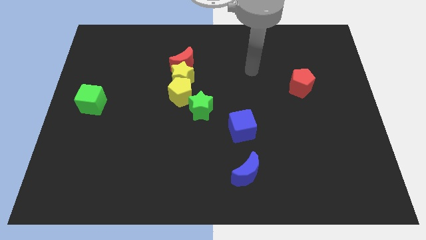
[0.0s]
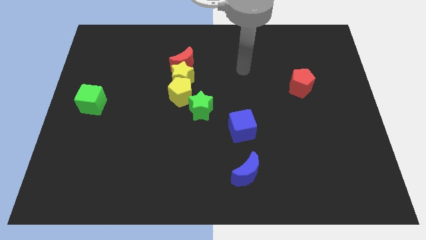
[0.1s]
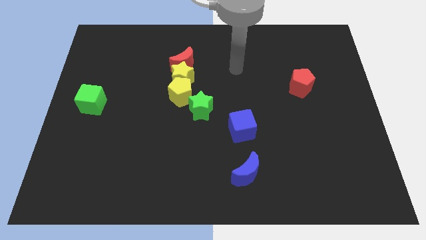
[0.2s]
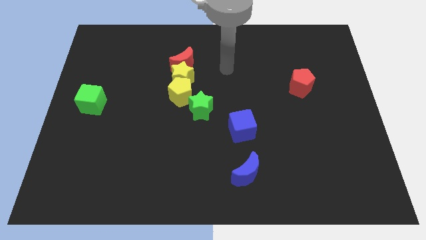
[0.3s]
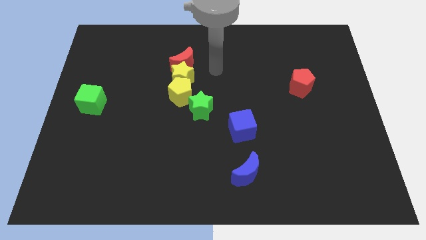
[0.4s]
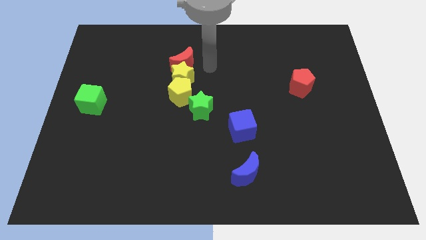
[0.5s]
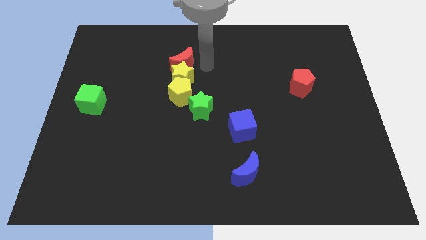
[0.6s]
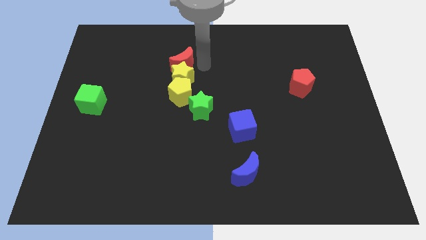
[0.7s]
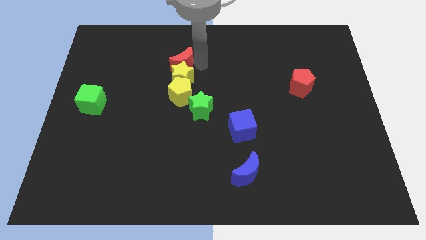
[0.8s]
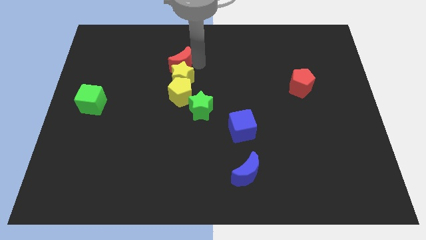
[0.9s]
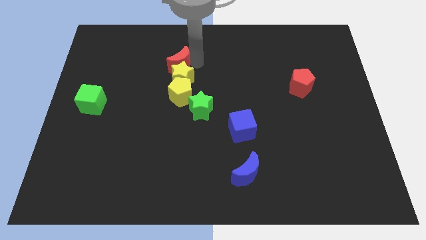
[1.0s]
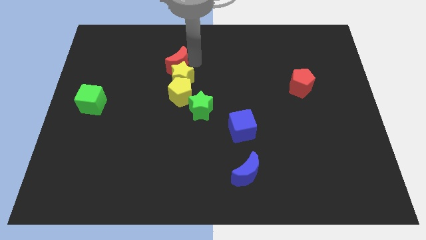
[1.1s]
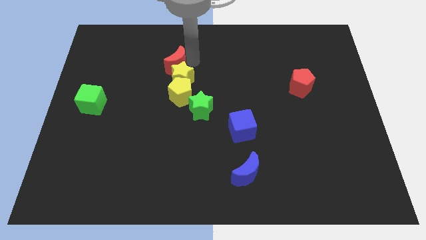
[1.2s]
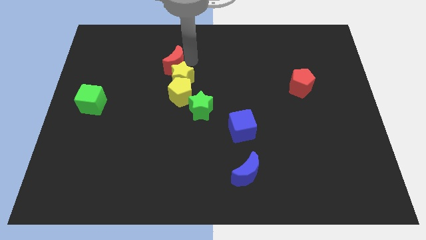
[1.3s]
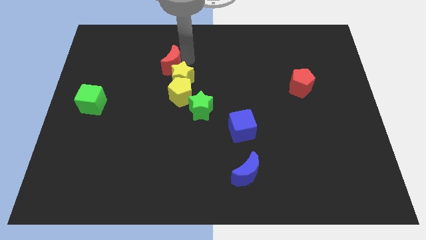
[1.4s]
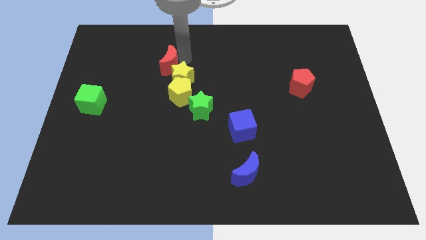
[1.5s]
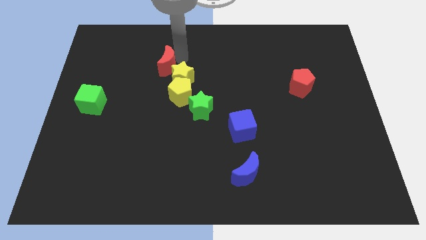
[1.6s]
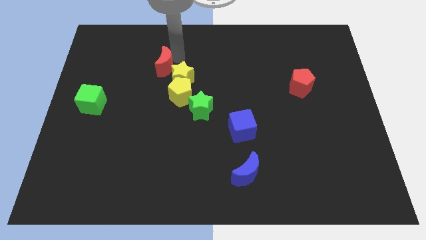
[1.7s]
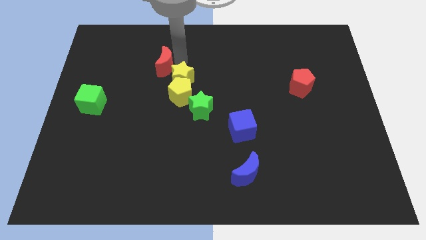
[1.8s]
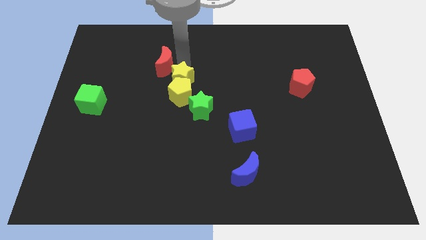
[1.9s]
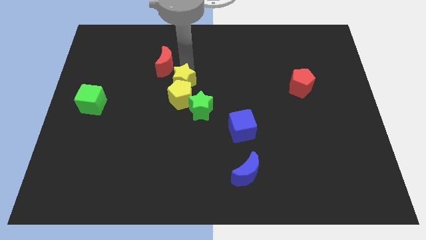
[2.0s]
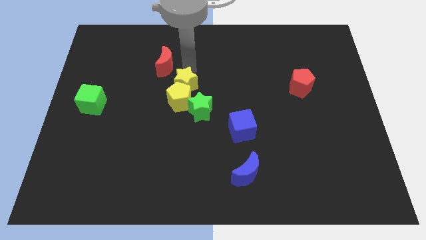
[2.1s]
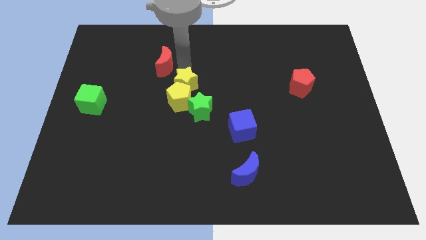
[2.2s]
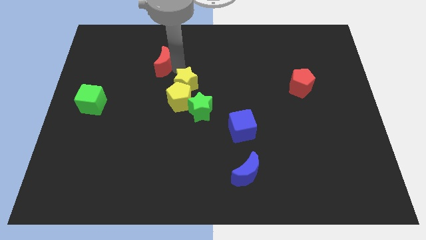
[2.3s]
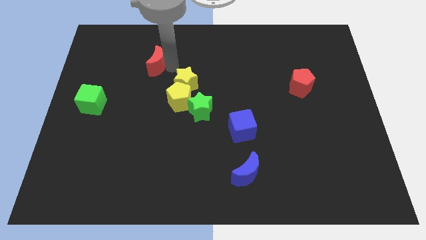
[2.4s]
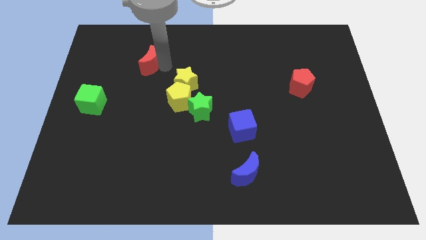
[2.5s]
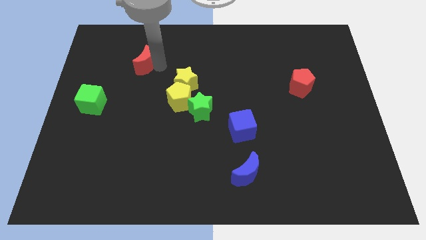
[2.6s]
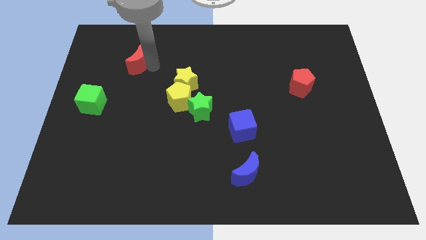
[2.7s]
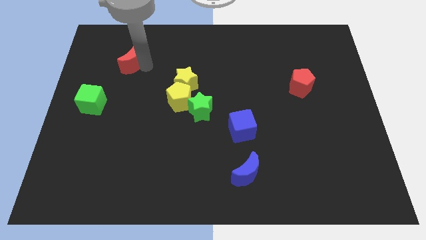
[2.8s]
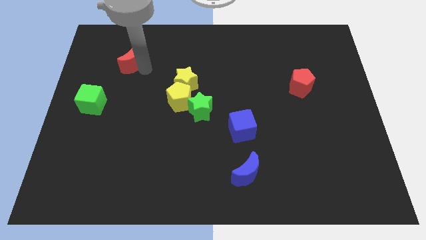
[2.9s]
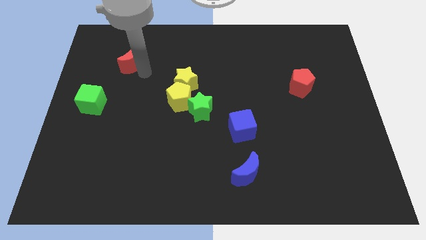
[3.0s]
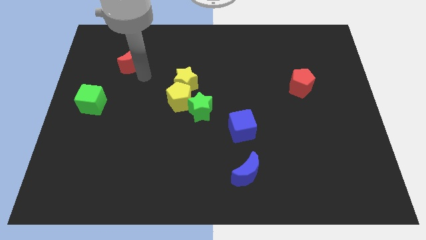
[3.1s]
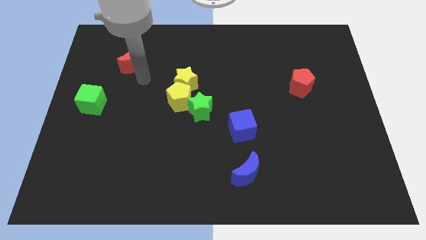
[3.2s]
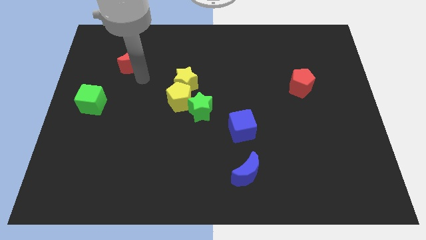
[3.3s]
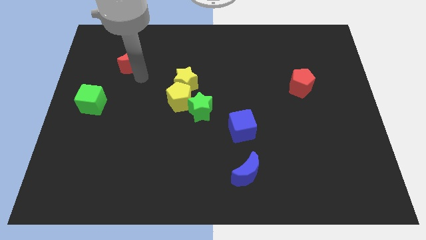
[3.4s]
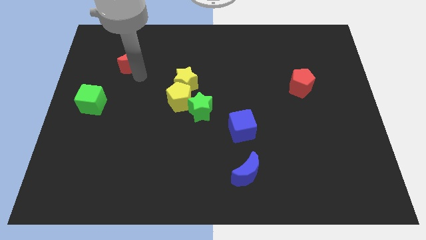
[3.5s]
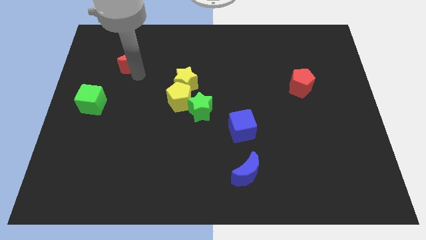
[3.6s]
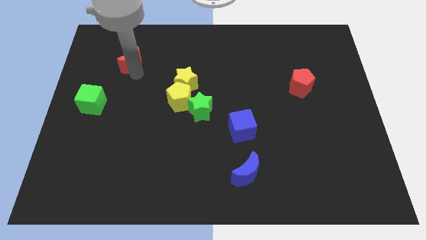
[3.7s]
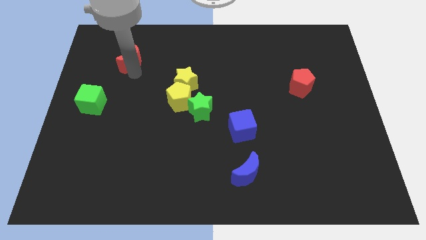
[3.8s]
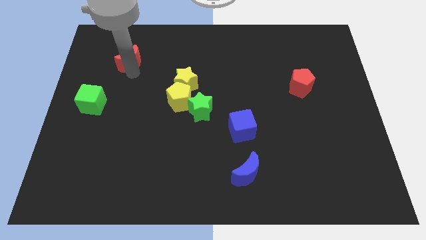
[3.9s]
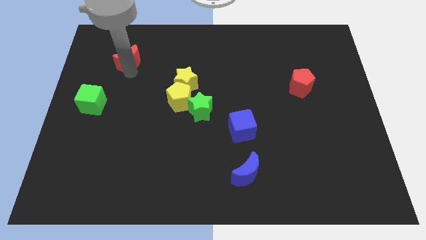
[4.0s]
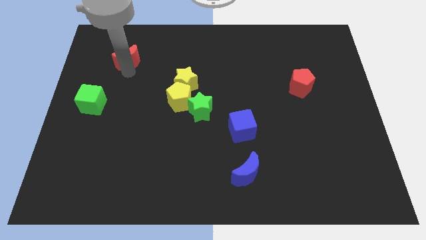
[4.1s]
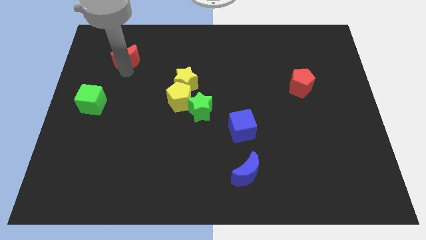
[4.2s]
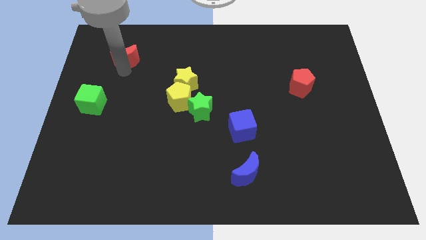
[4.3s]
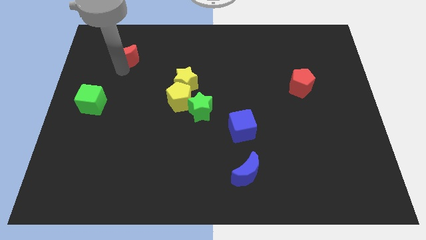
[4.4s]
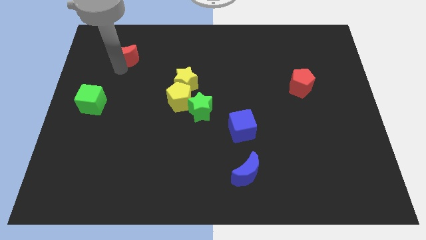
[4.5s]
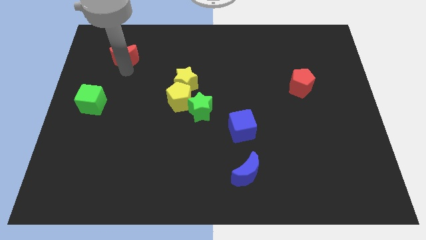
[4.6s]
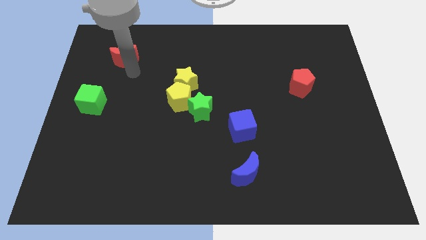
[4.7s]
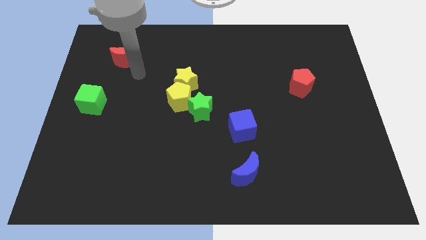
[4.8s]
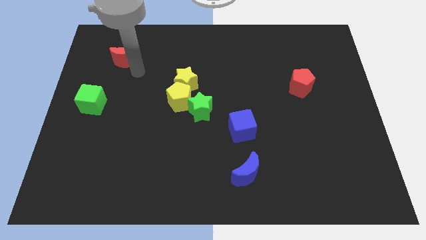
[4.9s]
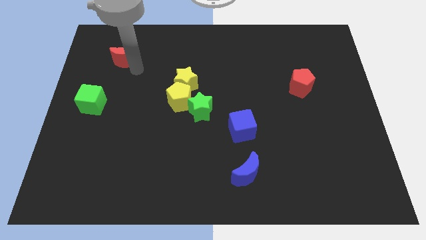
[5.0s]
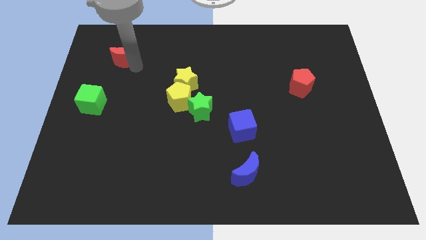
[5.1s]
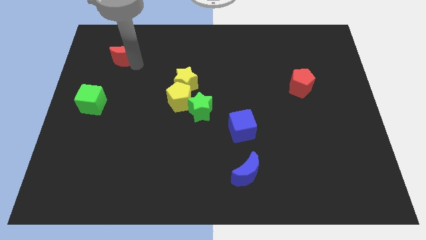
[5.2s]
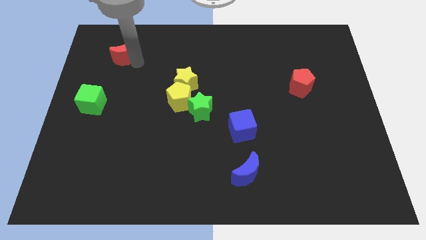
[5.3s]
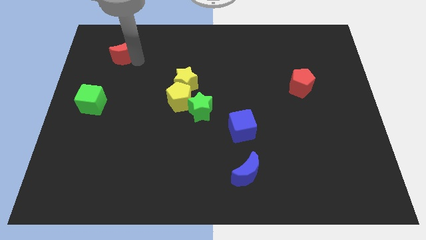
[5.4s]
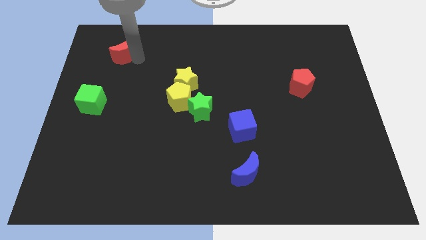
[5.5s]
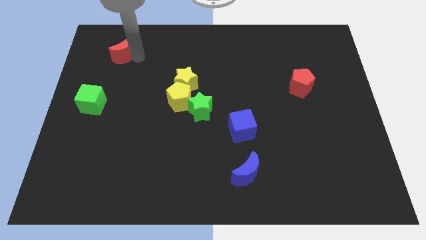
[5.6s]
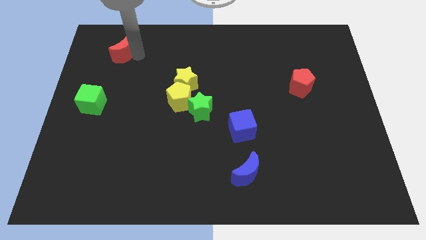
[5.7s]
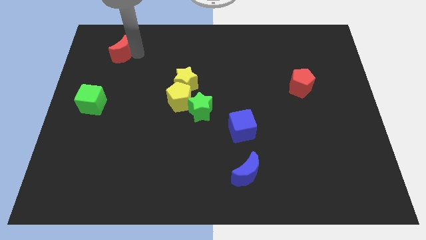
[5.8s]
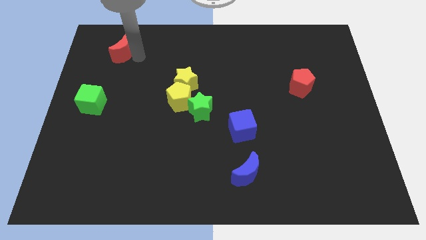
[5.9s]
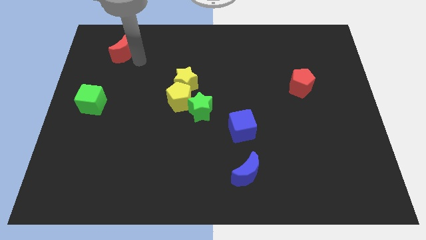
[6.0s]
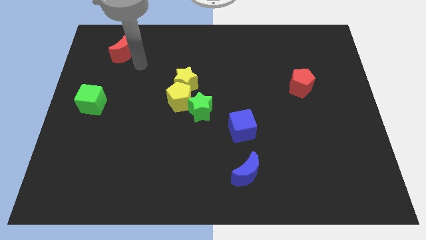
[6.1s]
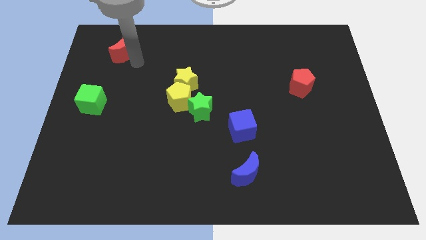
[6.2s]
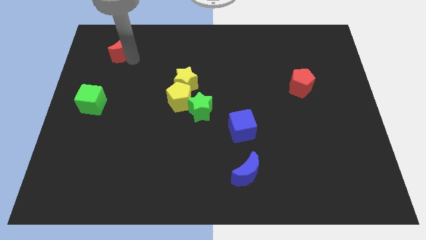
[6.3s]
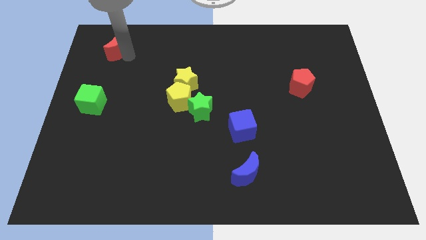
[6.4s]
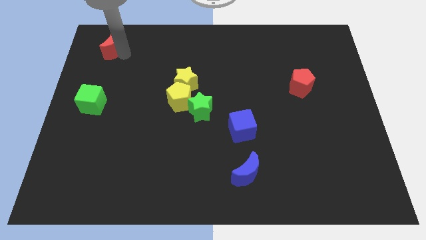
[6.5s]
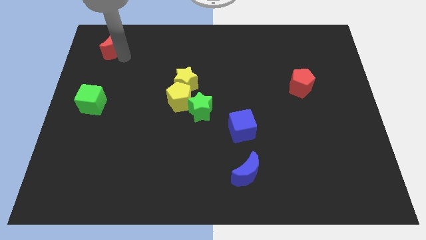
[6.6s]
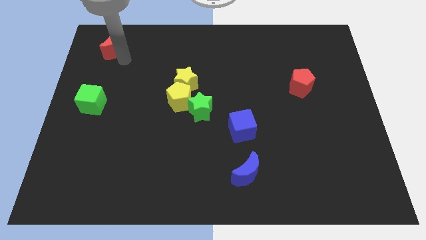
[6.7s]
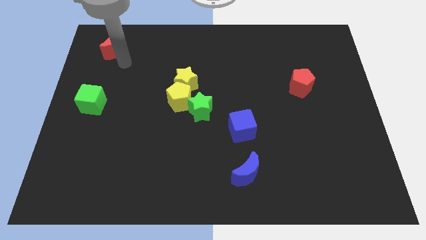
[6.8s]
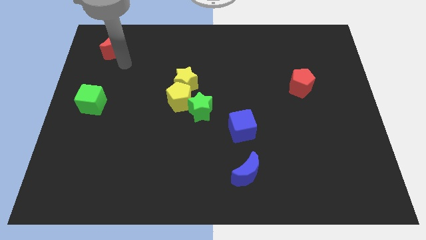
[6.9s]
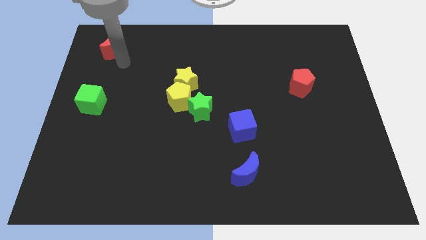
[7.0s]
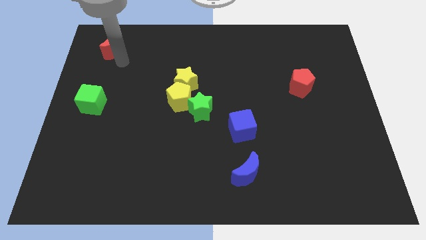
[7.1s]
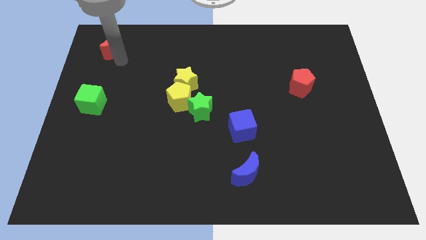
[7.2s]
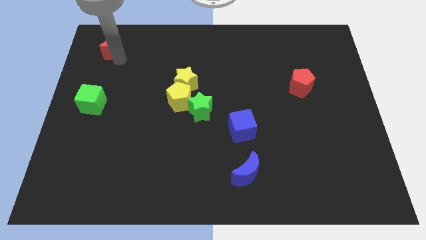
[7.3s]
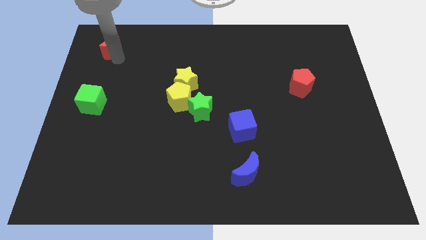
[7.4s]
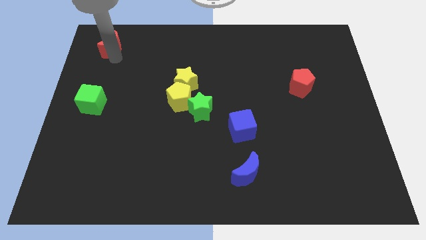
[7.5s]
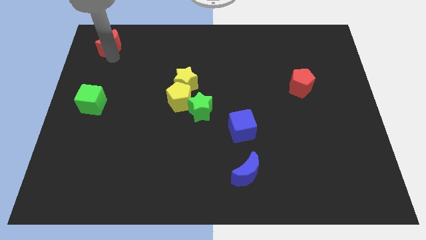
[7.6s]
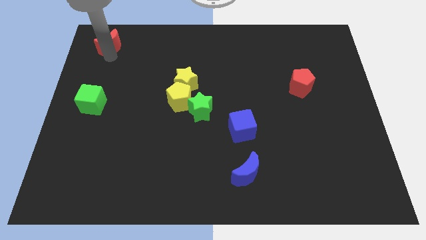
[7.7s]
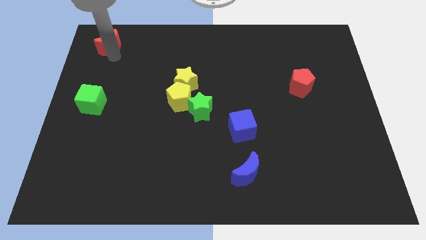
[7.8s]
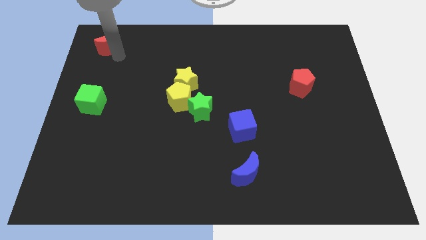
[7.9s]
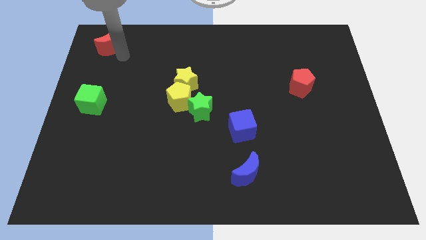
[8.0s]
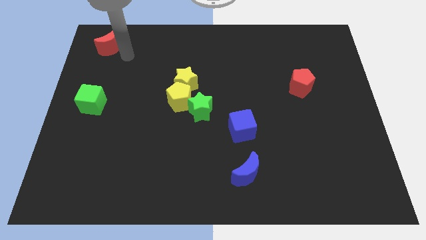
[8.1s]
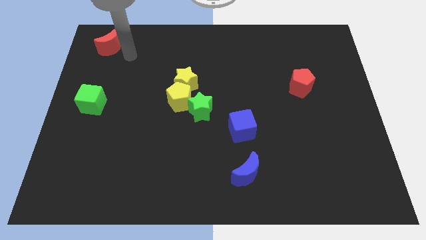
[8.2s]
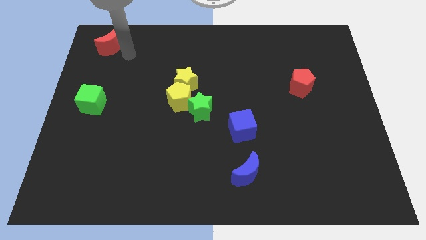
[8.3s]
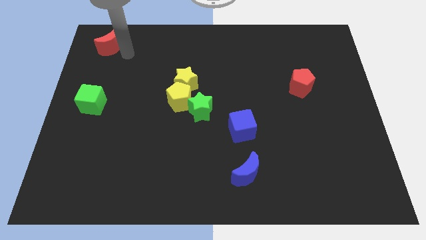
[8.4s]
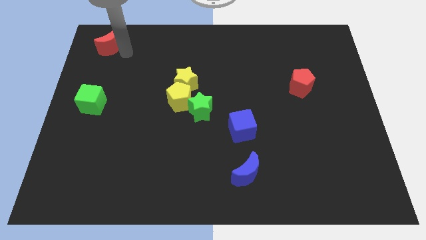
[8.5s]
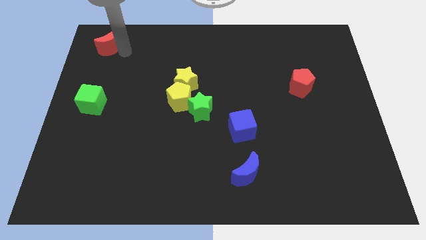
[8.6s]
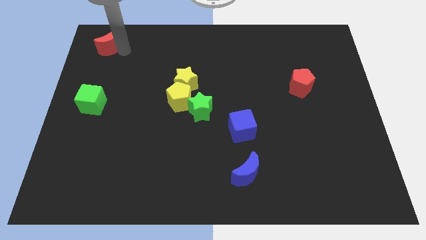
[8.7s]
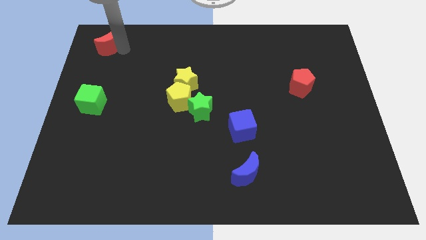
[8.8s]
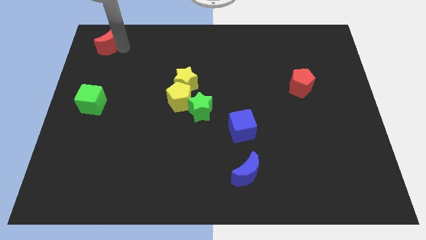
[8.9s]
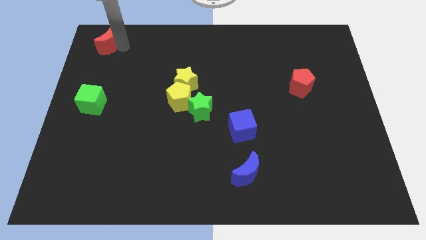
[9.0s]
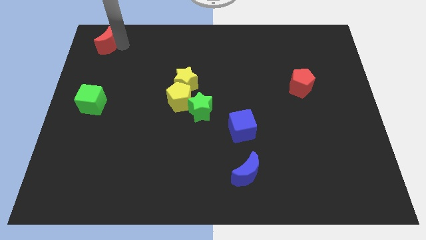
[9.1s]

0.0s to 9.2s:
push the red moon to the top left of the board
